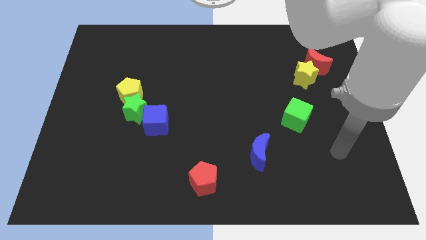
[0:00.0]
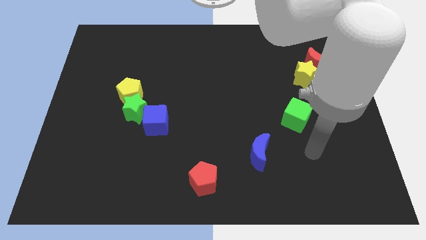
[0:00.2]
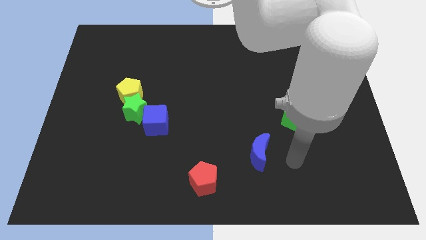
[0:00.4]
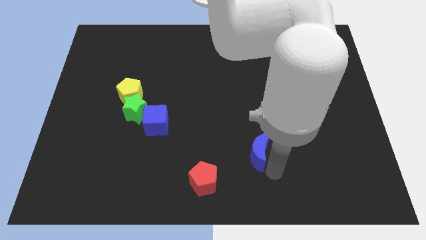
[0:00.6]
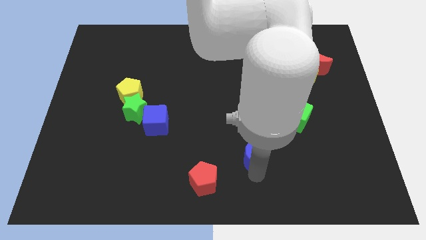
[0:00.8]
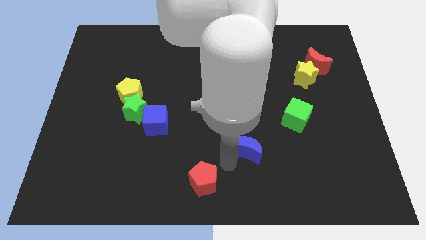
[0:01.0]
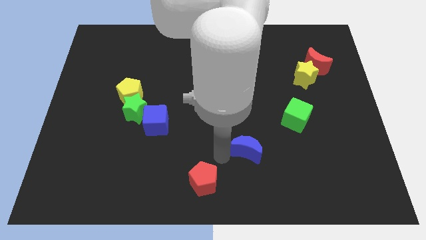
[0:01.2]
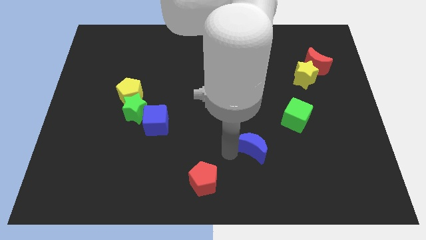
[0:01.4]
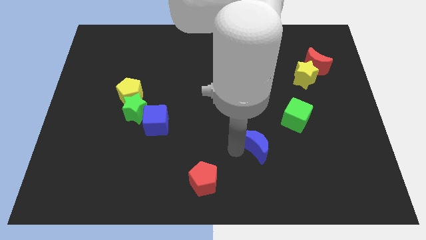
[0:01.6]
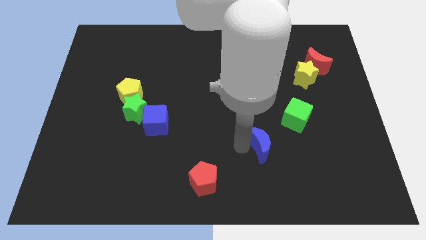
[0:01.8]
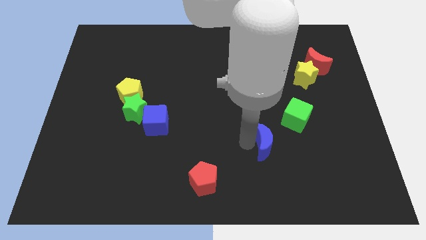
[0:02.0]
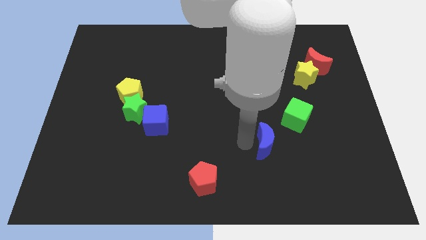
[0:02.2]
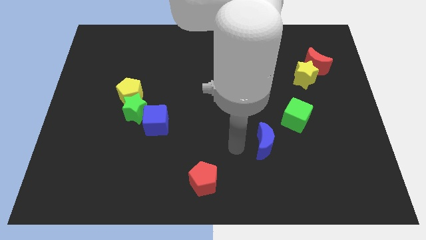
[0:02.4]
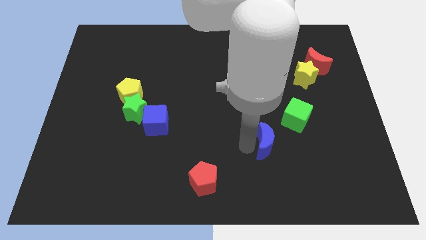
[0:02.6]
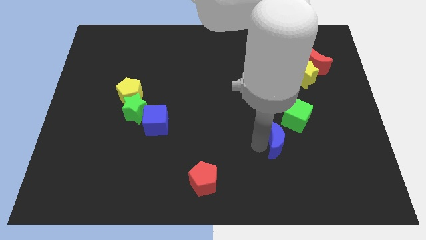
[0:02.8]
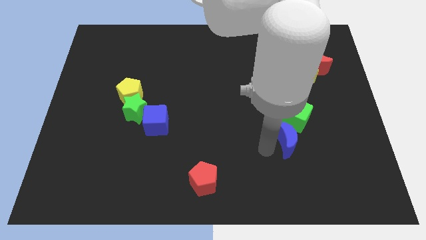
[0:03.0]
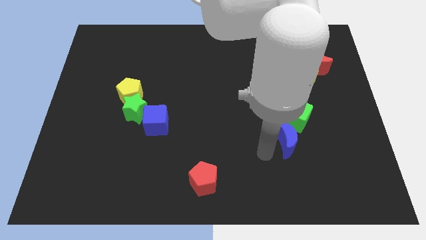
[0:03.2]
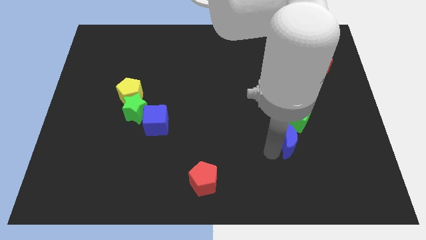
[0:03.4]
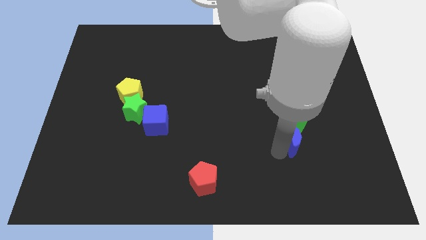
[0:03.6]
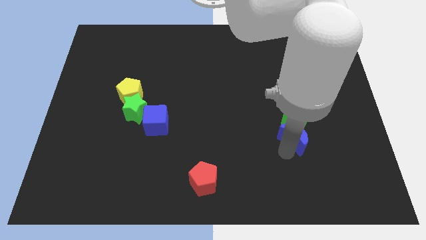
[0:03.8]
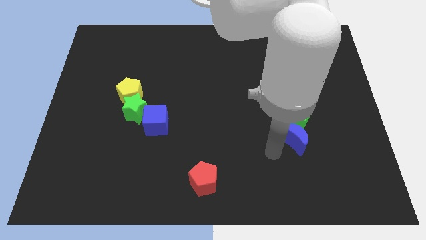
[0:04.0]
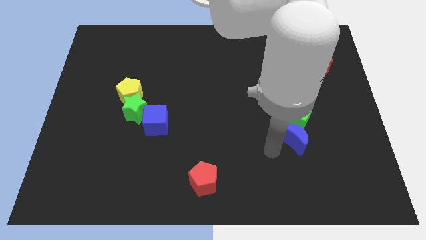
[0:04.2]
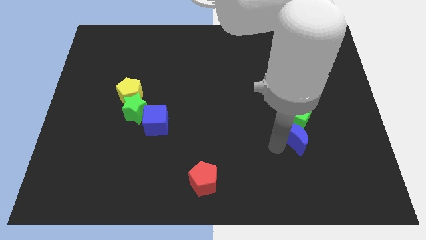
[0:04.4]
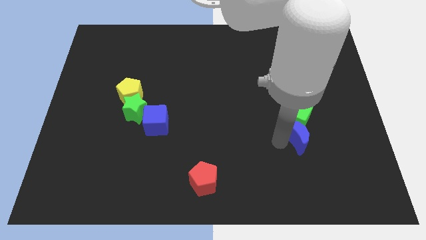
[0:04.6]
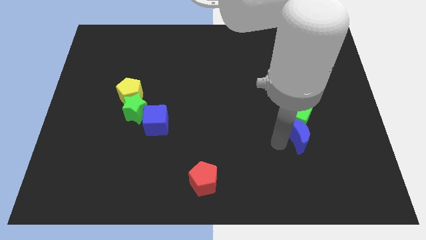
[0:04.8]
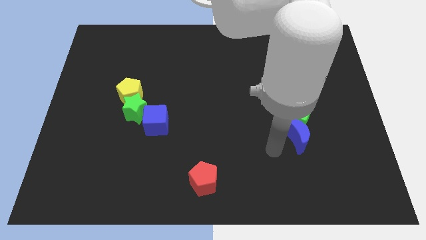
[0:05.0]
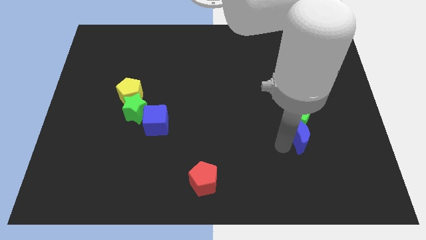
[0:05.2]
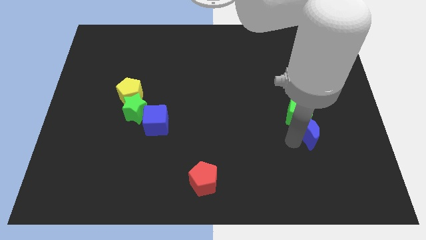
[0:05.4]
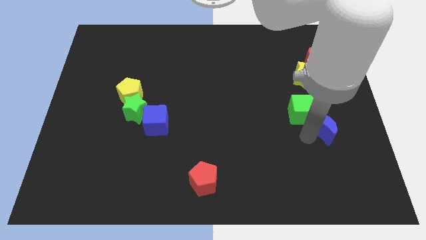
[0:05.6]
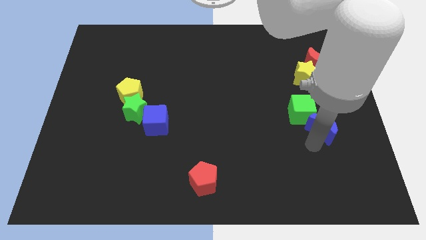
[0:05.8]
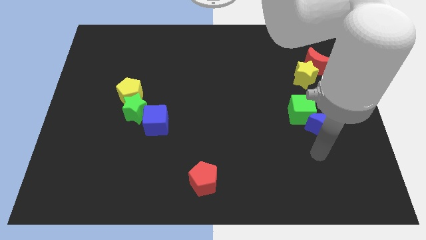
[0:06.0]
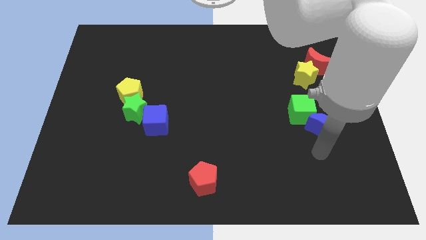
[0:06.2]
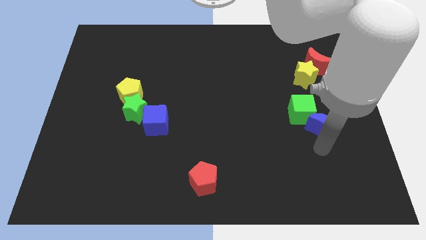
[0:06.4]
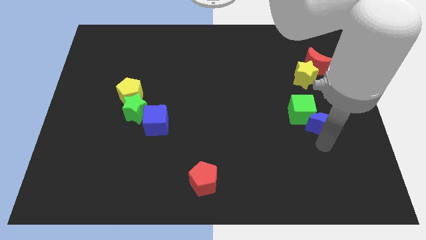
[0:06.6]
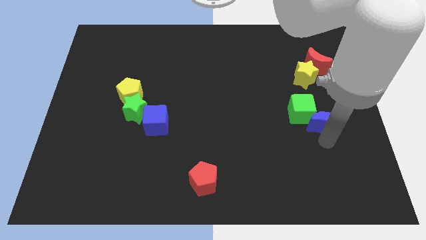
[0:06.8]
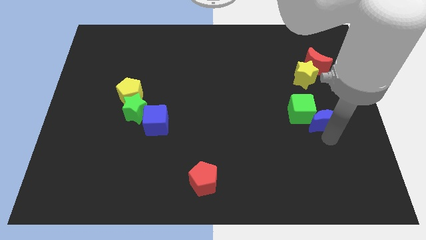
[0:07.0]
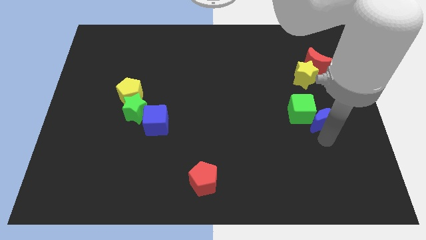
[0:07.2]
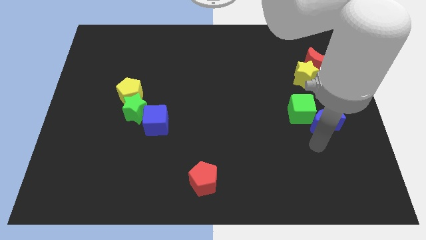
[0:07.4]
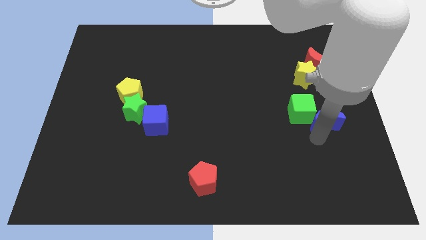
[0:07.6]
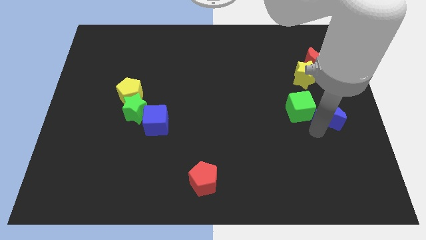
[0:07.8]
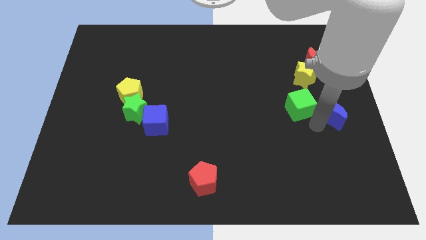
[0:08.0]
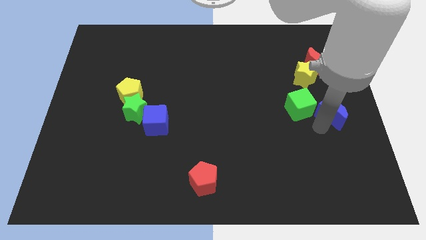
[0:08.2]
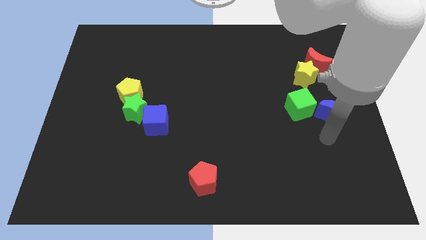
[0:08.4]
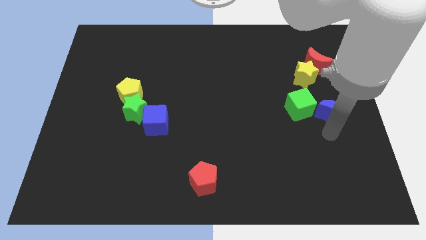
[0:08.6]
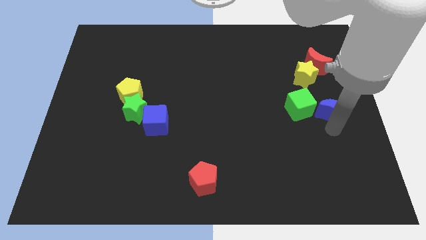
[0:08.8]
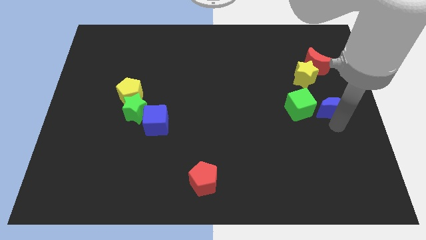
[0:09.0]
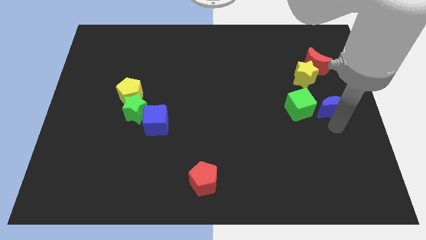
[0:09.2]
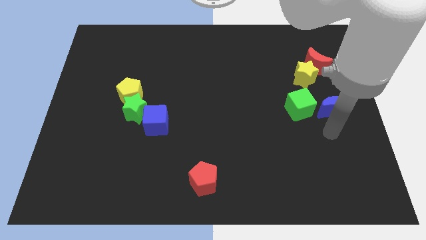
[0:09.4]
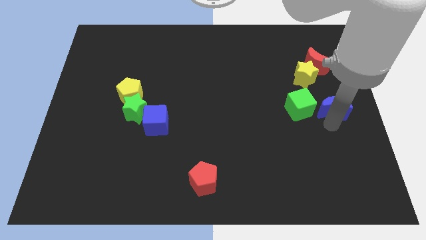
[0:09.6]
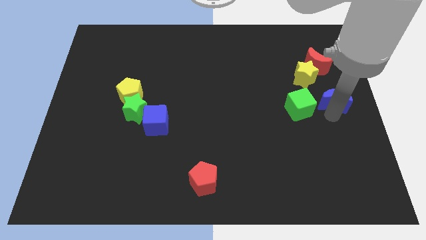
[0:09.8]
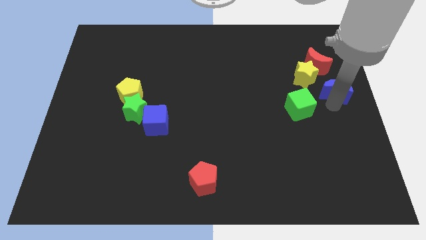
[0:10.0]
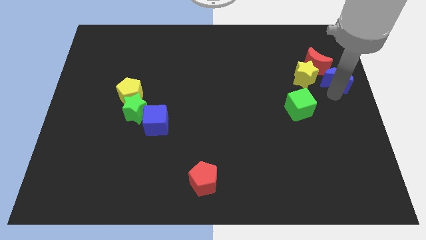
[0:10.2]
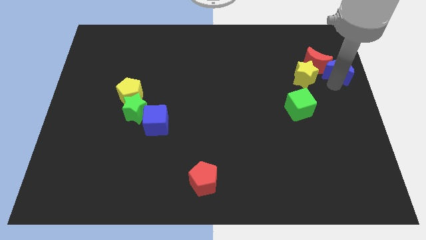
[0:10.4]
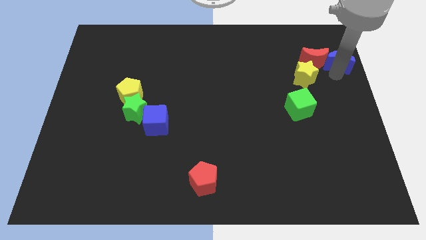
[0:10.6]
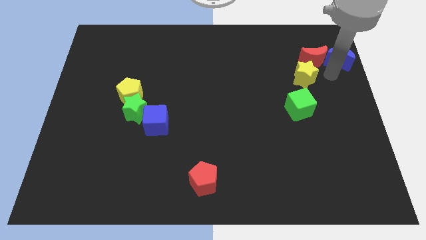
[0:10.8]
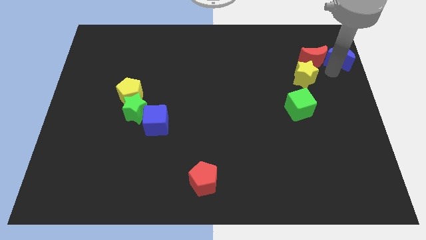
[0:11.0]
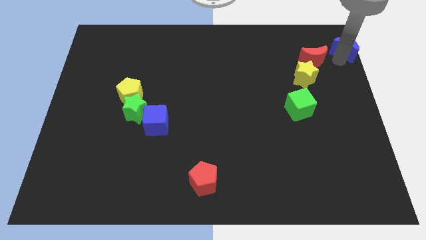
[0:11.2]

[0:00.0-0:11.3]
move the blue moon to the top right

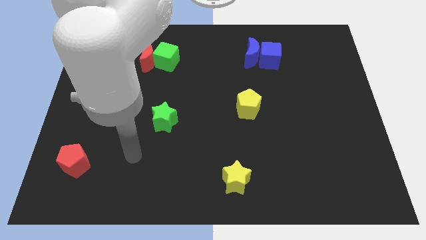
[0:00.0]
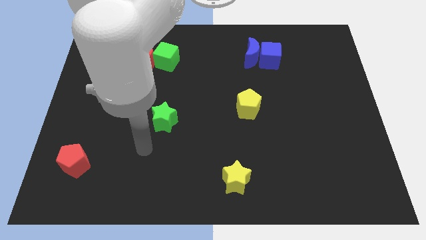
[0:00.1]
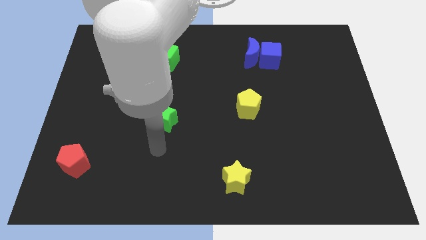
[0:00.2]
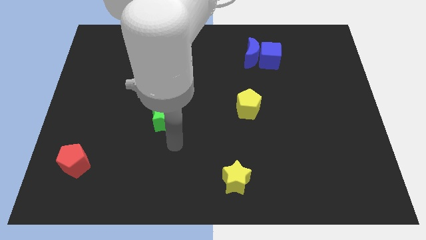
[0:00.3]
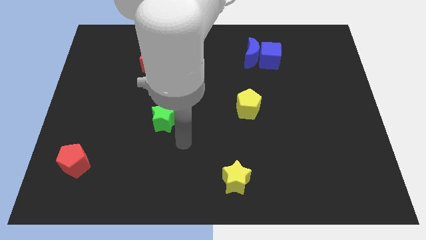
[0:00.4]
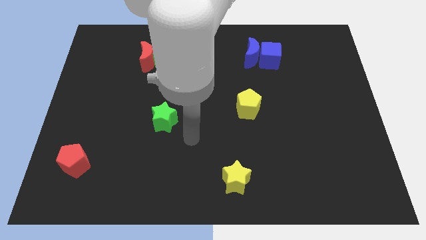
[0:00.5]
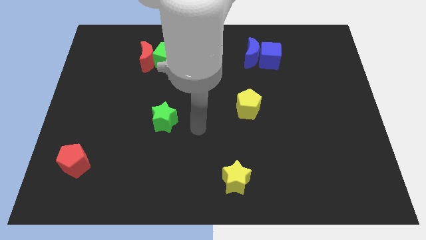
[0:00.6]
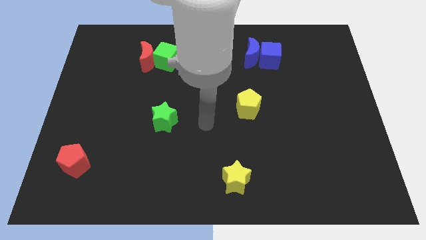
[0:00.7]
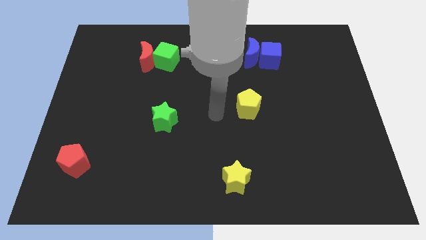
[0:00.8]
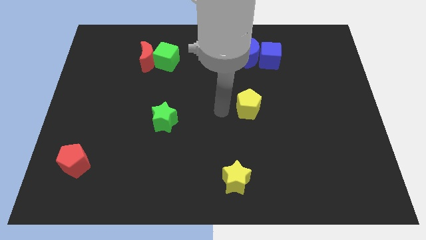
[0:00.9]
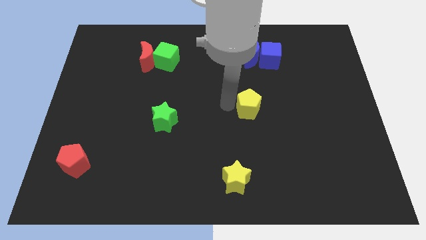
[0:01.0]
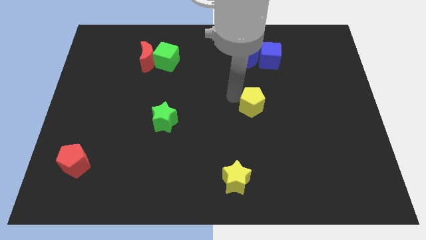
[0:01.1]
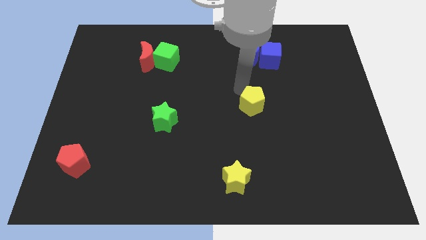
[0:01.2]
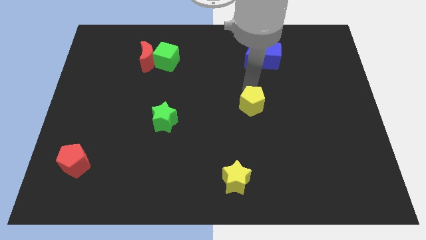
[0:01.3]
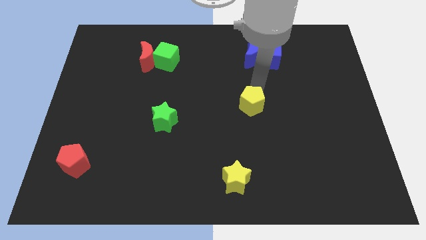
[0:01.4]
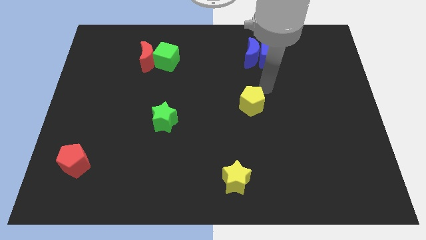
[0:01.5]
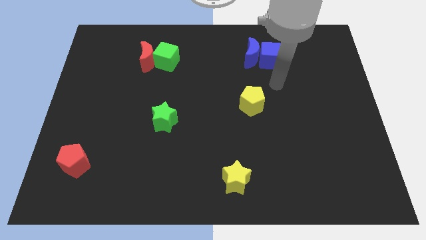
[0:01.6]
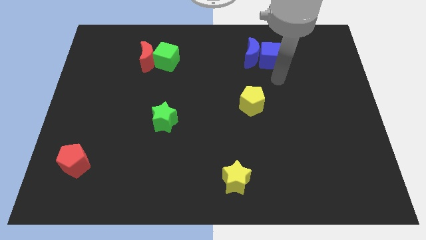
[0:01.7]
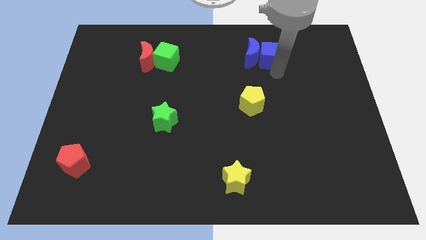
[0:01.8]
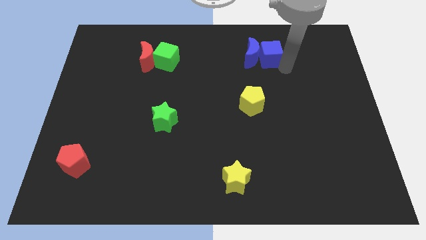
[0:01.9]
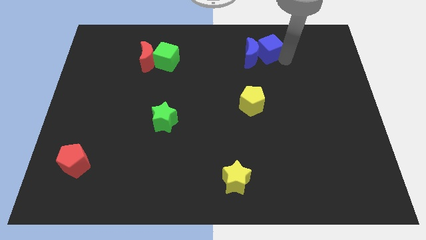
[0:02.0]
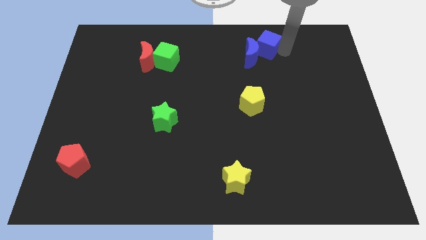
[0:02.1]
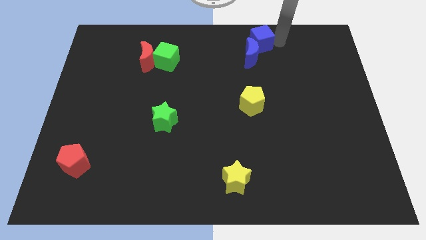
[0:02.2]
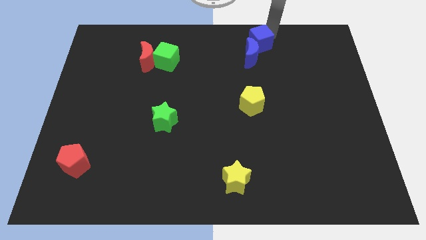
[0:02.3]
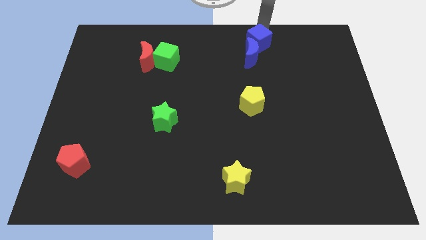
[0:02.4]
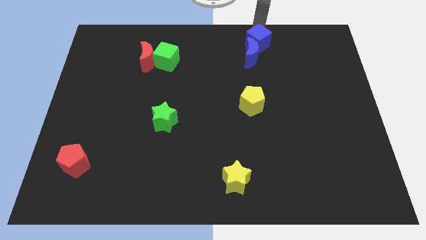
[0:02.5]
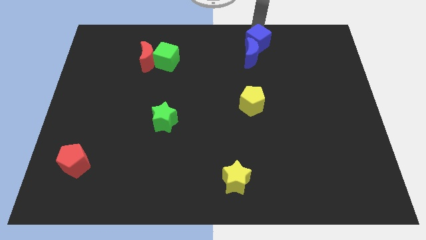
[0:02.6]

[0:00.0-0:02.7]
move the blue cube to the top side
